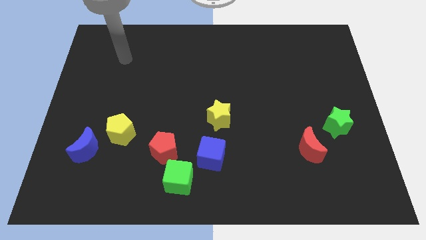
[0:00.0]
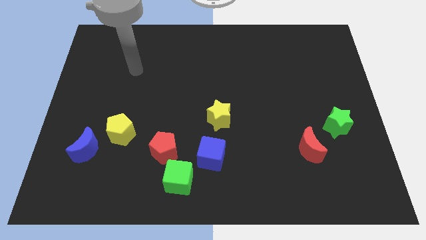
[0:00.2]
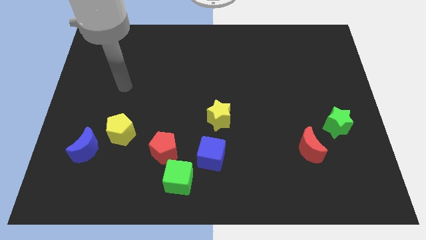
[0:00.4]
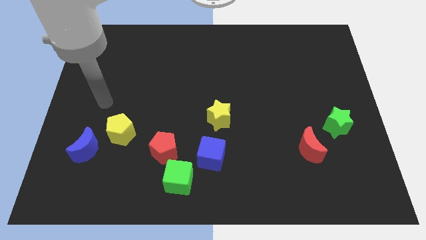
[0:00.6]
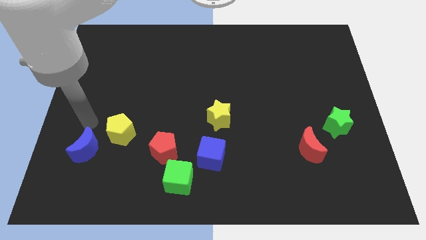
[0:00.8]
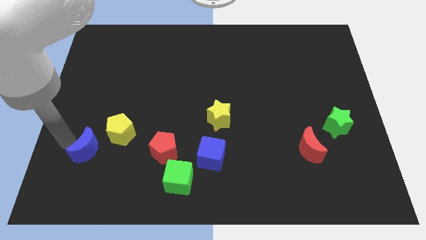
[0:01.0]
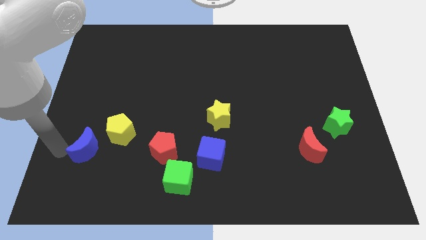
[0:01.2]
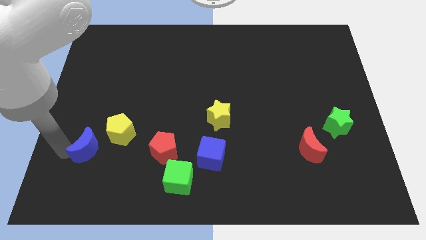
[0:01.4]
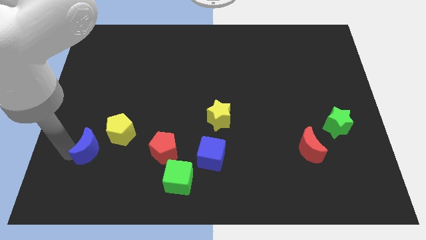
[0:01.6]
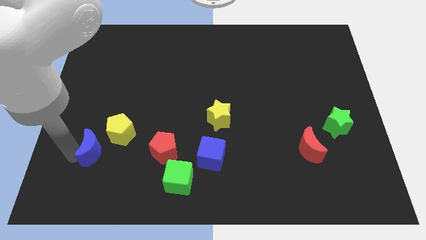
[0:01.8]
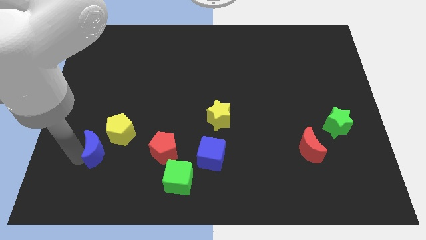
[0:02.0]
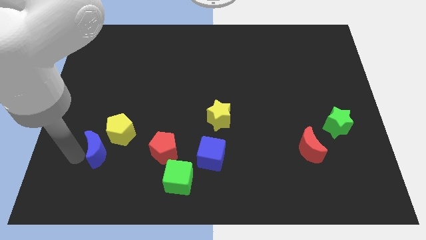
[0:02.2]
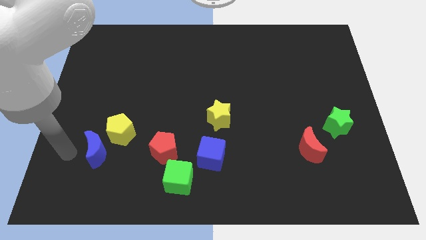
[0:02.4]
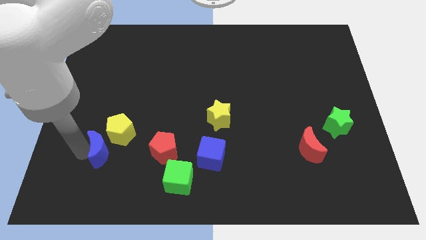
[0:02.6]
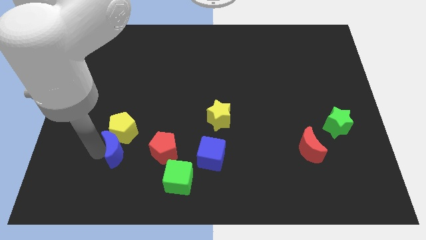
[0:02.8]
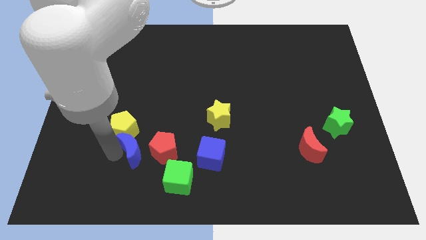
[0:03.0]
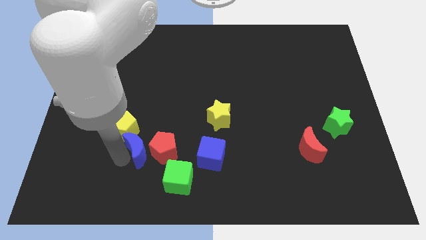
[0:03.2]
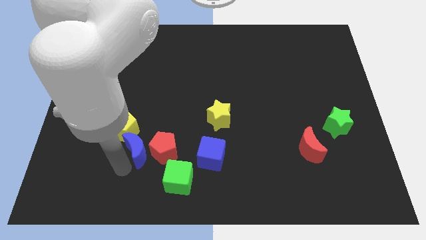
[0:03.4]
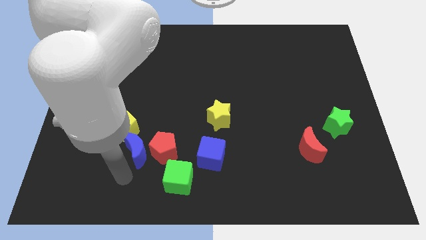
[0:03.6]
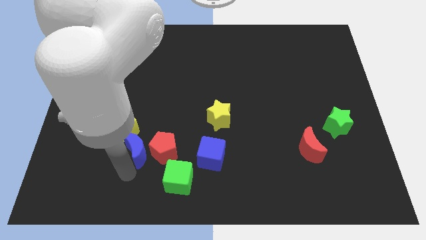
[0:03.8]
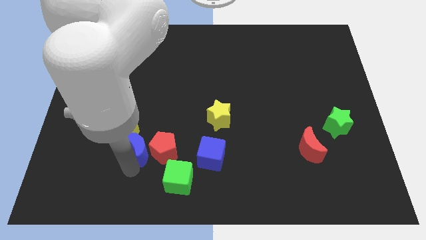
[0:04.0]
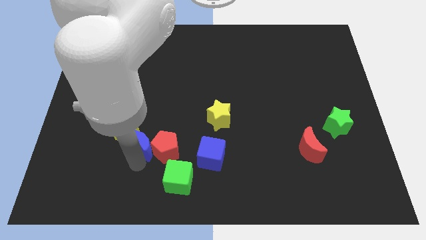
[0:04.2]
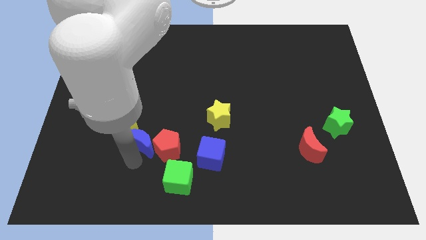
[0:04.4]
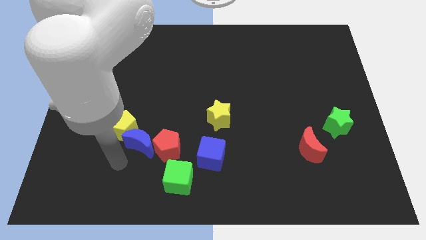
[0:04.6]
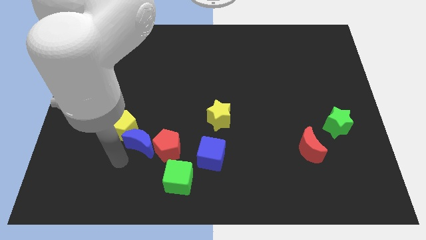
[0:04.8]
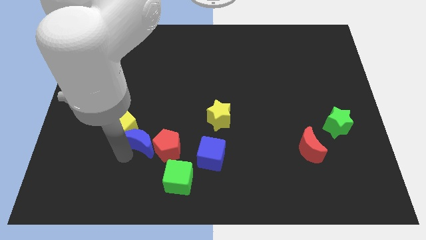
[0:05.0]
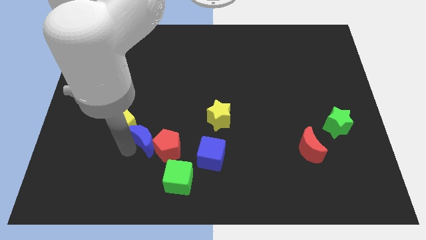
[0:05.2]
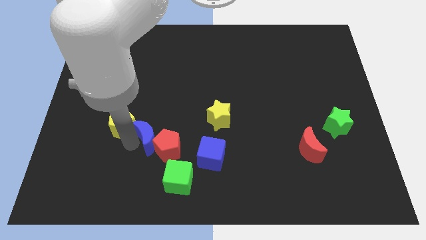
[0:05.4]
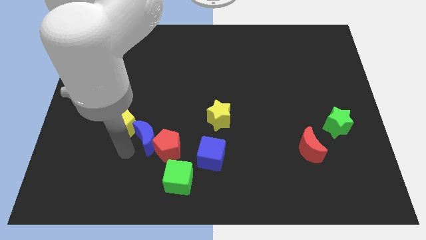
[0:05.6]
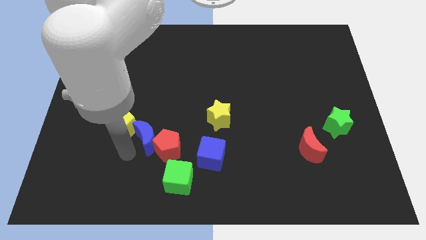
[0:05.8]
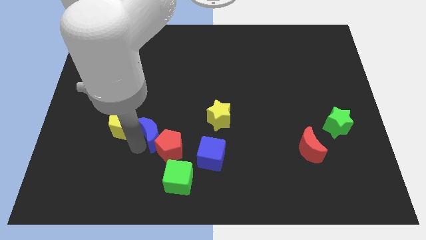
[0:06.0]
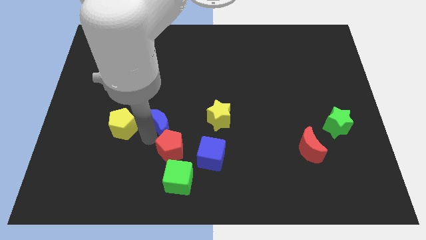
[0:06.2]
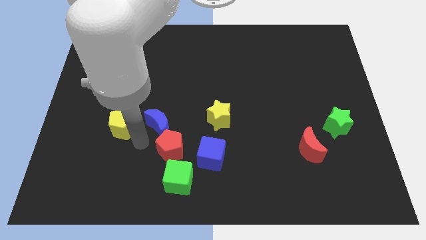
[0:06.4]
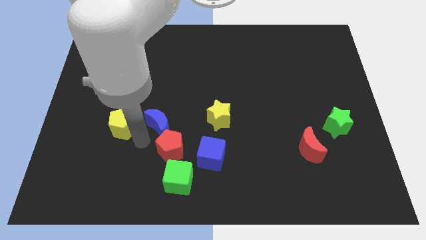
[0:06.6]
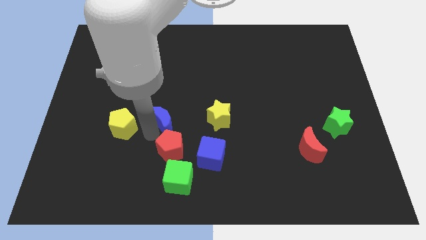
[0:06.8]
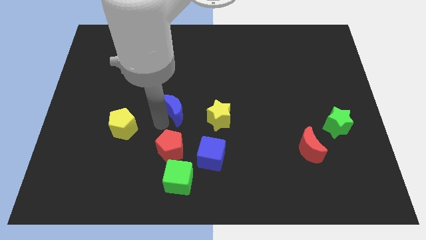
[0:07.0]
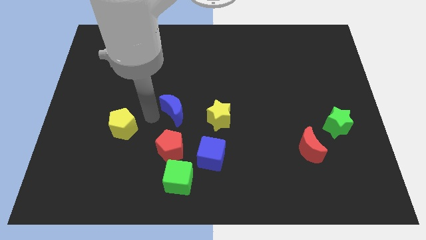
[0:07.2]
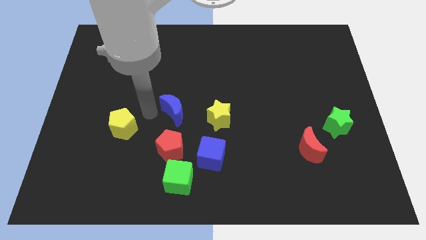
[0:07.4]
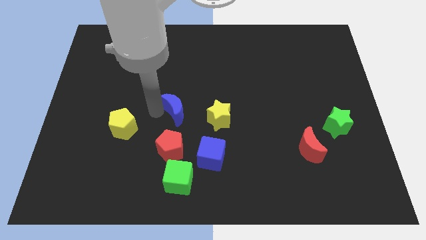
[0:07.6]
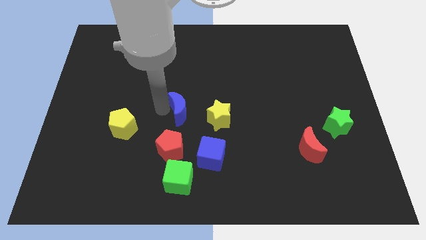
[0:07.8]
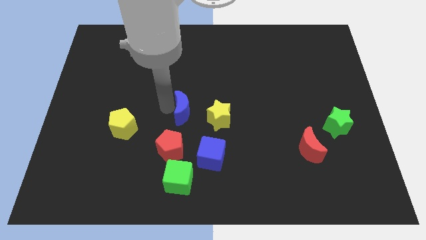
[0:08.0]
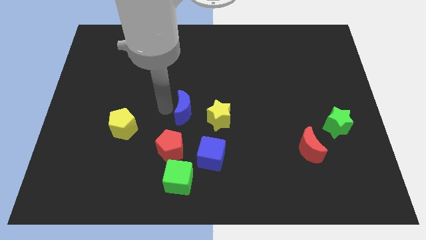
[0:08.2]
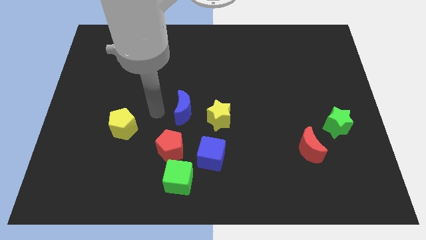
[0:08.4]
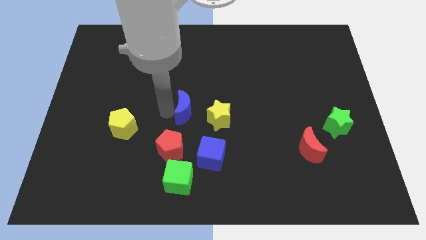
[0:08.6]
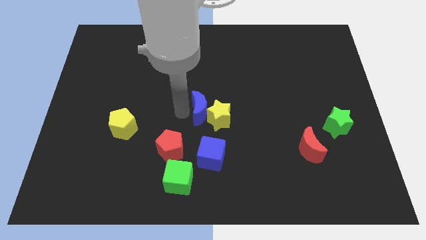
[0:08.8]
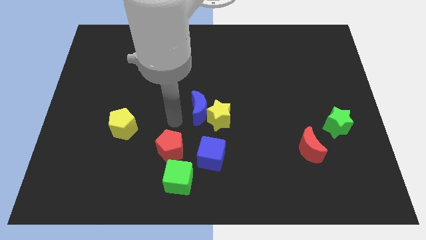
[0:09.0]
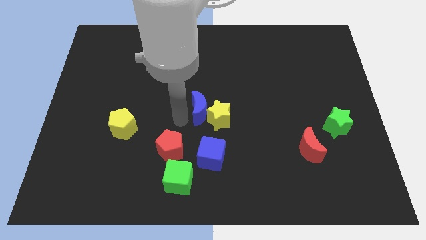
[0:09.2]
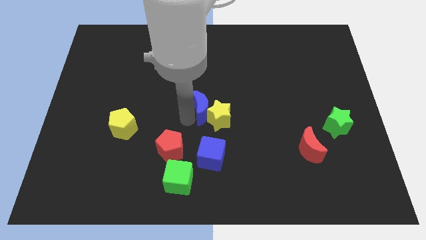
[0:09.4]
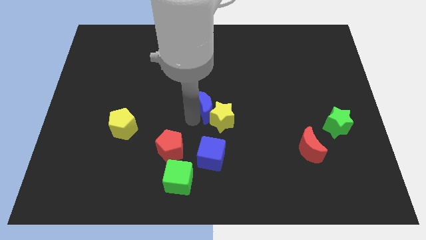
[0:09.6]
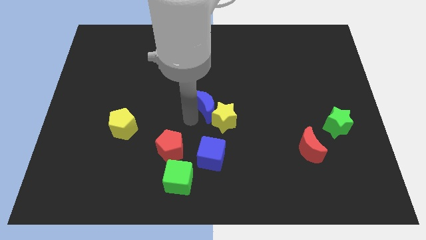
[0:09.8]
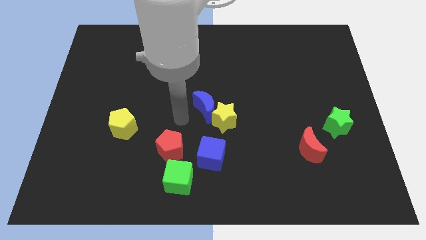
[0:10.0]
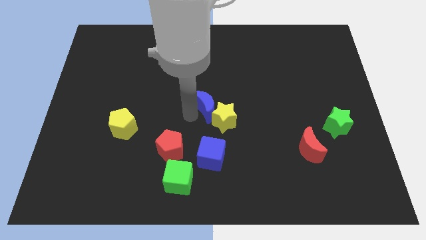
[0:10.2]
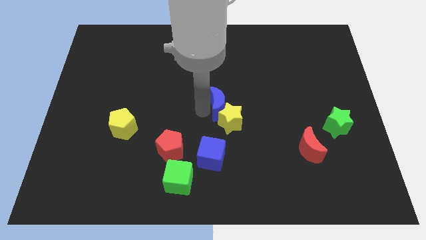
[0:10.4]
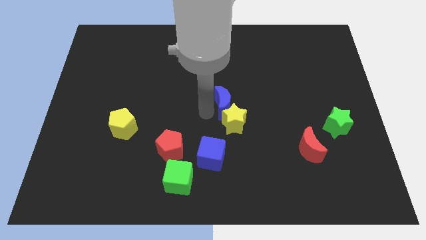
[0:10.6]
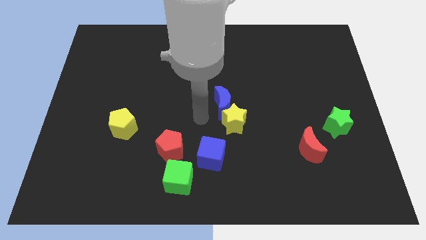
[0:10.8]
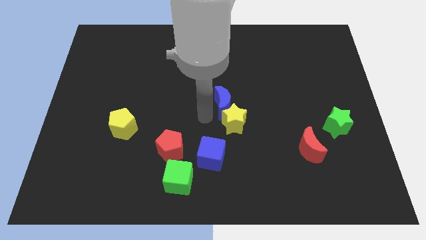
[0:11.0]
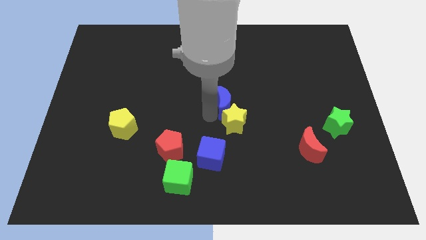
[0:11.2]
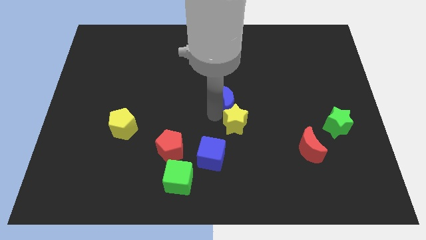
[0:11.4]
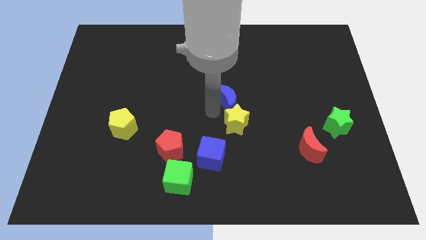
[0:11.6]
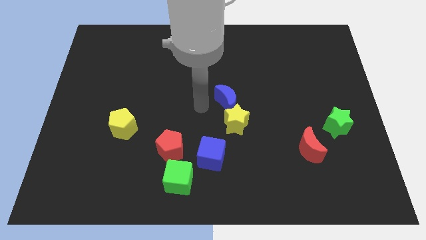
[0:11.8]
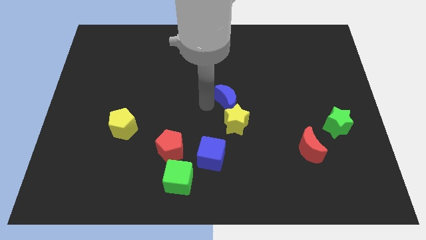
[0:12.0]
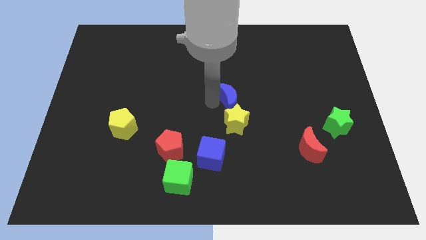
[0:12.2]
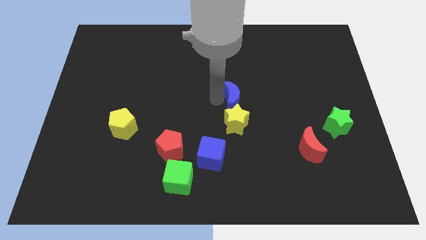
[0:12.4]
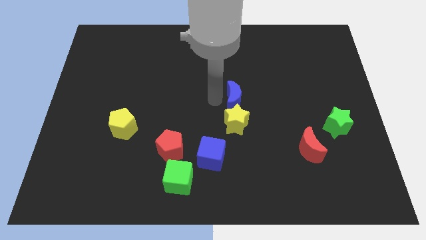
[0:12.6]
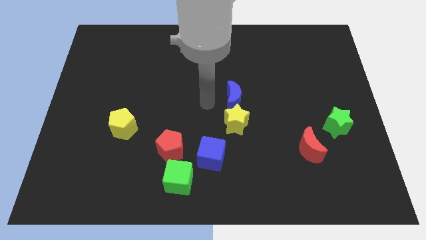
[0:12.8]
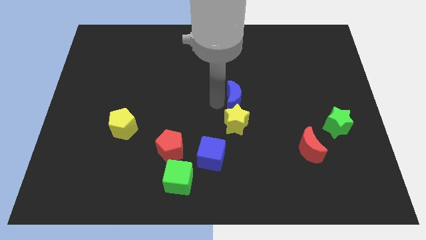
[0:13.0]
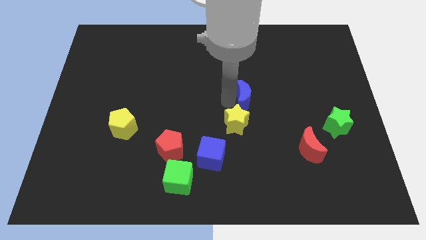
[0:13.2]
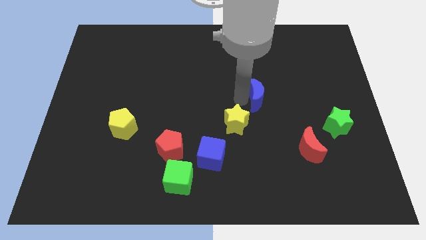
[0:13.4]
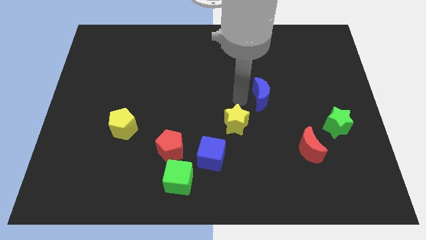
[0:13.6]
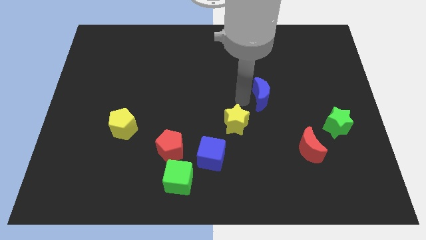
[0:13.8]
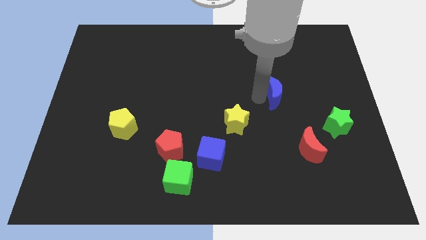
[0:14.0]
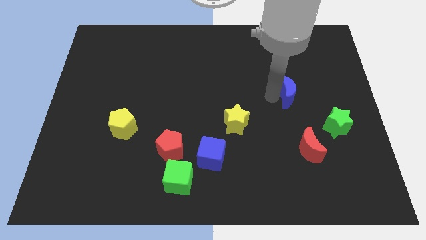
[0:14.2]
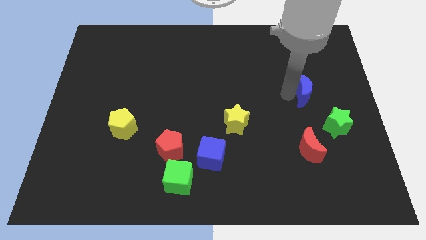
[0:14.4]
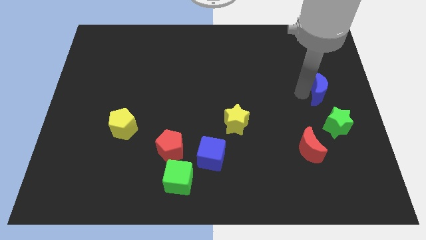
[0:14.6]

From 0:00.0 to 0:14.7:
move the blue moon to the right side of the board
